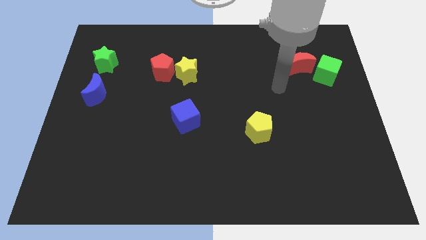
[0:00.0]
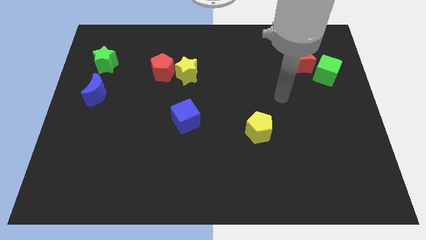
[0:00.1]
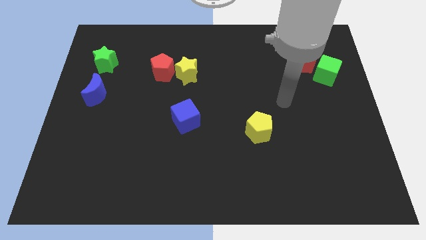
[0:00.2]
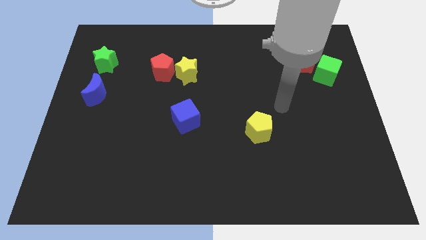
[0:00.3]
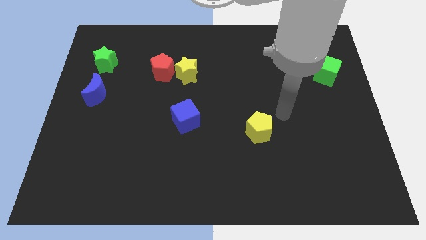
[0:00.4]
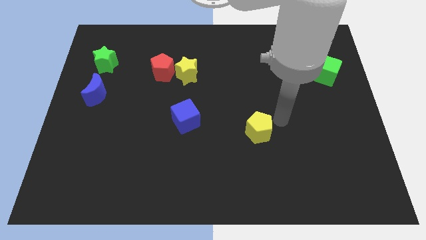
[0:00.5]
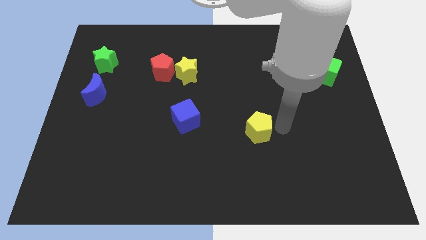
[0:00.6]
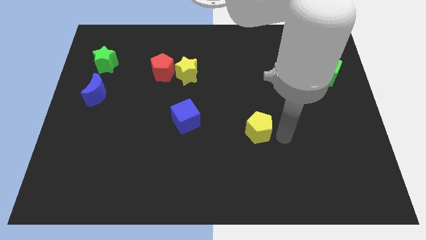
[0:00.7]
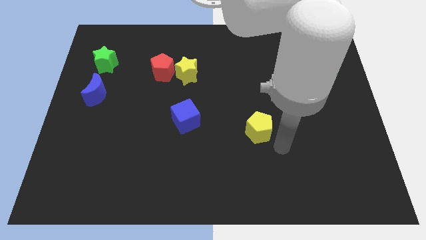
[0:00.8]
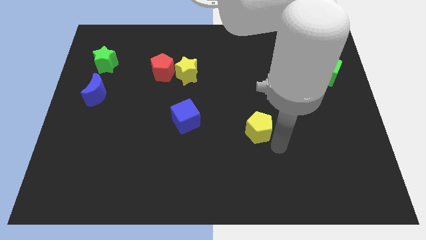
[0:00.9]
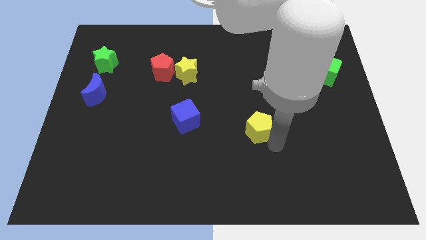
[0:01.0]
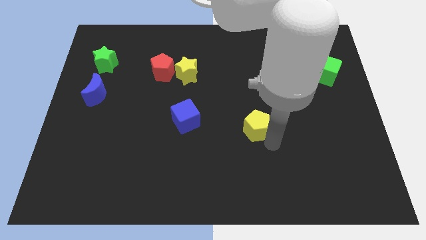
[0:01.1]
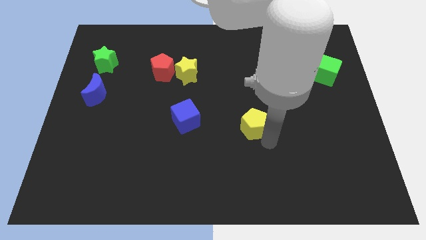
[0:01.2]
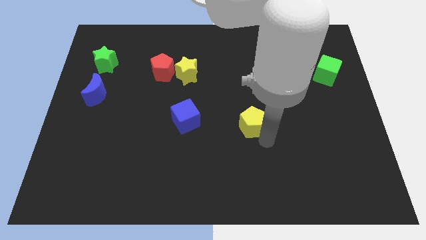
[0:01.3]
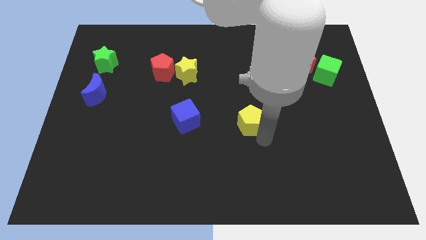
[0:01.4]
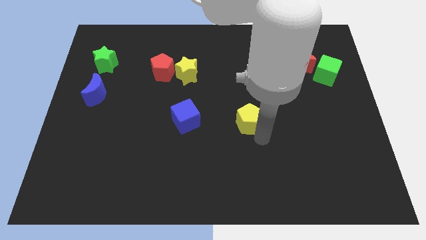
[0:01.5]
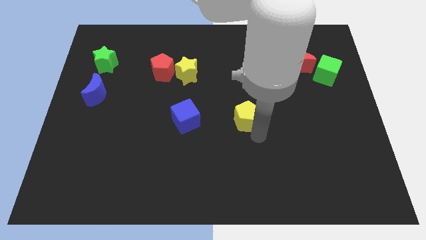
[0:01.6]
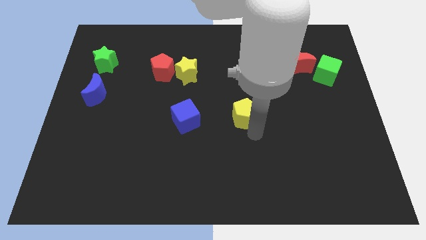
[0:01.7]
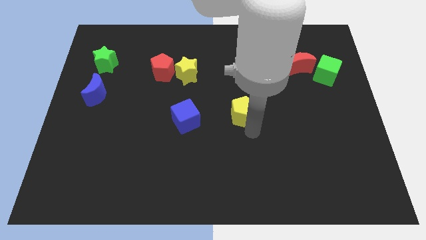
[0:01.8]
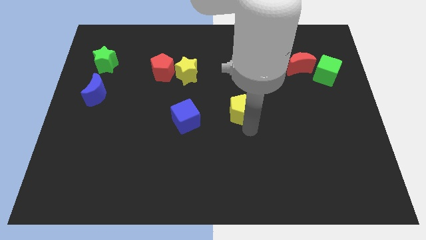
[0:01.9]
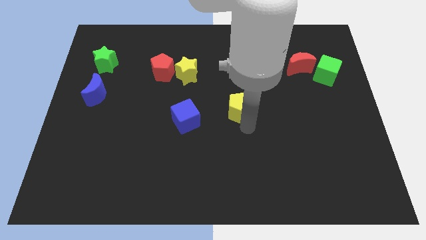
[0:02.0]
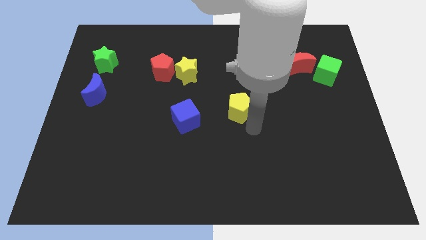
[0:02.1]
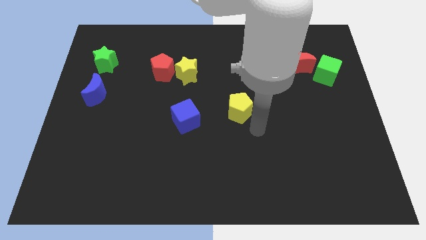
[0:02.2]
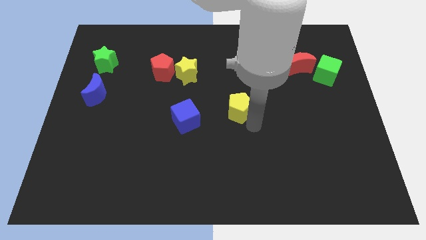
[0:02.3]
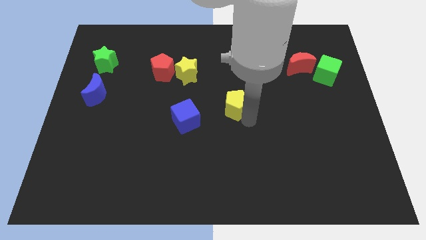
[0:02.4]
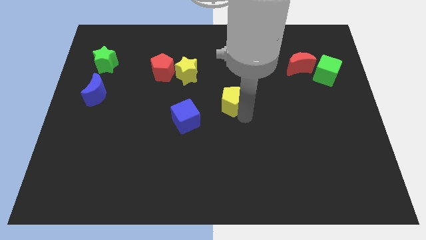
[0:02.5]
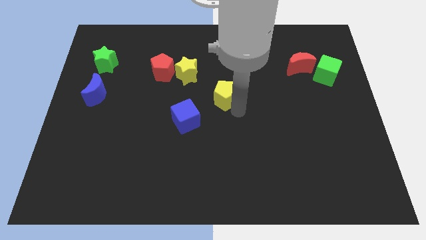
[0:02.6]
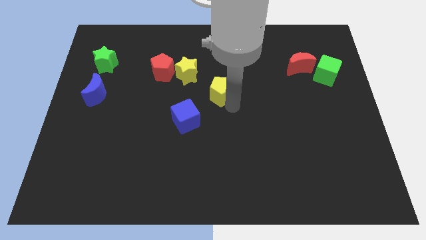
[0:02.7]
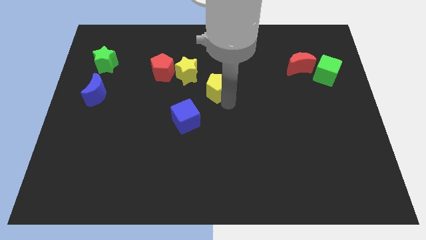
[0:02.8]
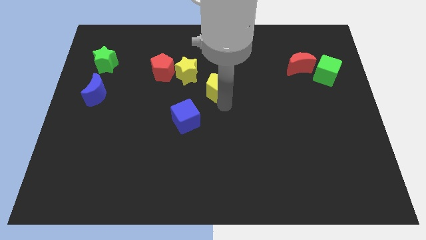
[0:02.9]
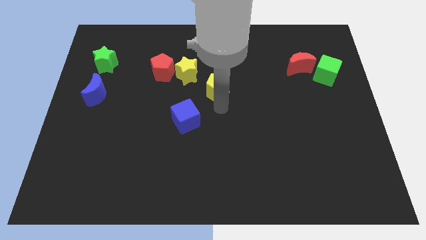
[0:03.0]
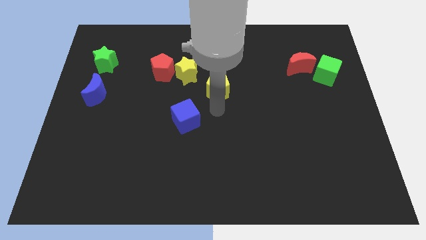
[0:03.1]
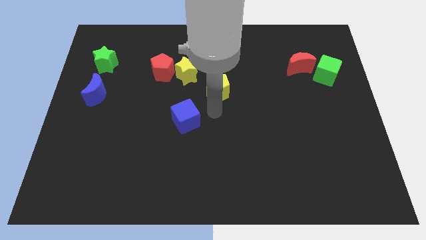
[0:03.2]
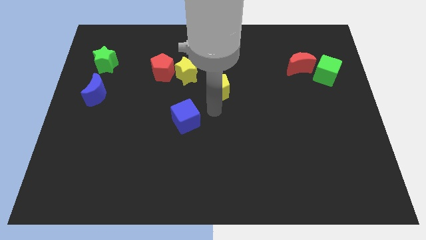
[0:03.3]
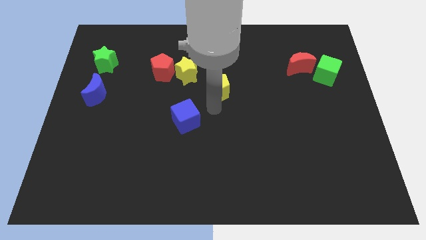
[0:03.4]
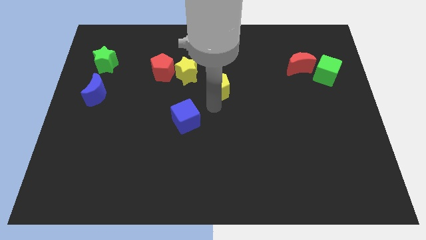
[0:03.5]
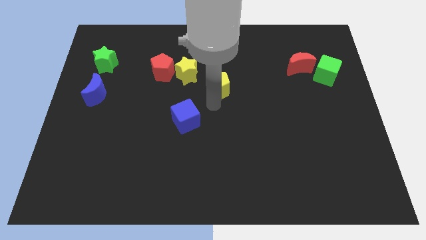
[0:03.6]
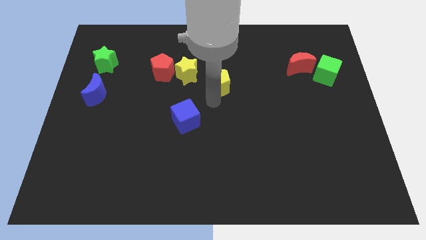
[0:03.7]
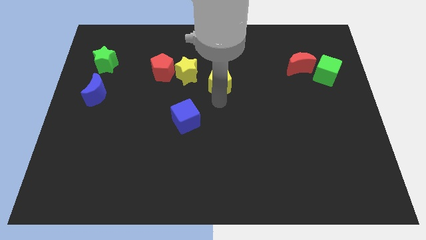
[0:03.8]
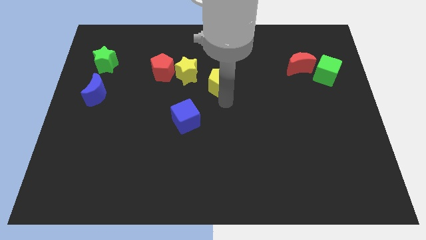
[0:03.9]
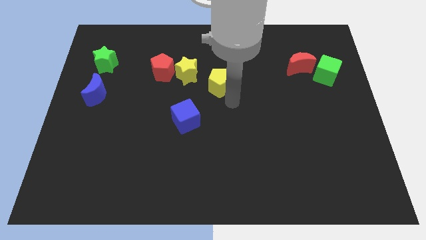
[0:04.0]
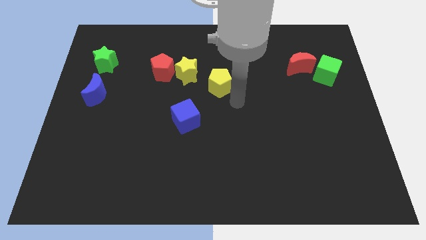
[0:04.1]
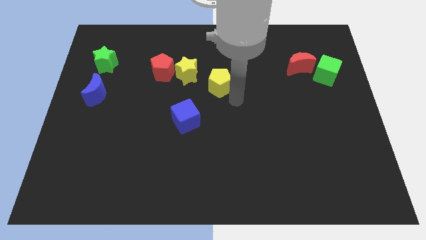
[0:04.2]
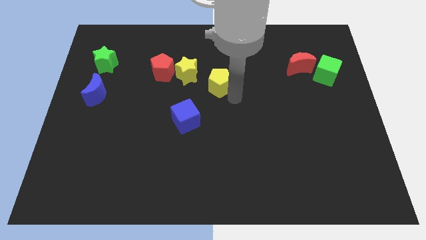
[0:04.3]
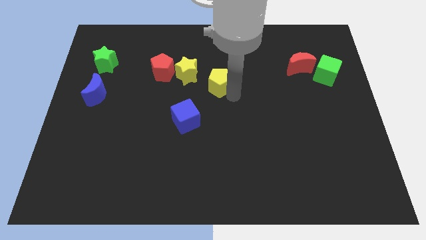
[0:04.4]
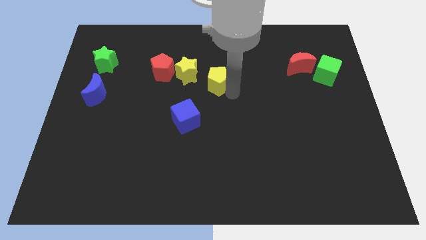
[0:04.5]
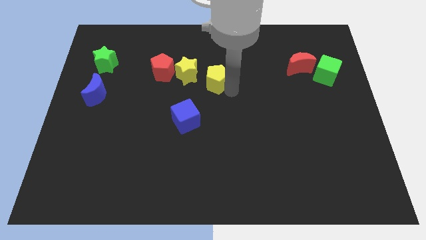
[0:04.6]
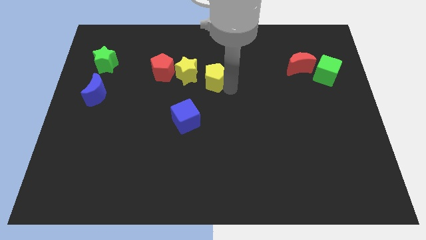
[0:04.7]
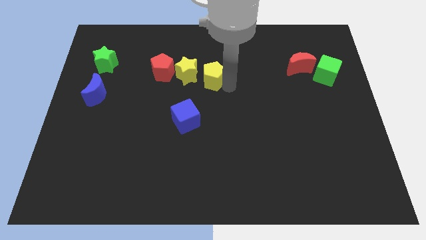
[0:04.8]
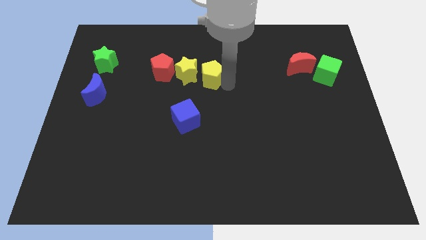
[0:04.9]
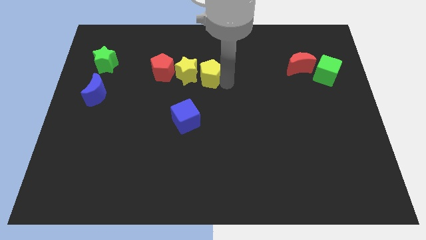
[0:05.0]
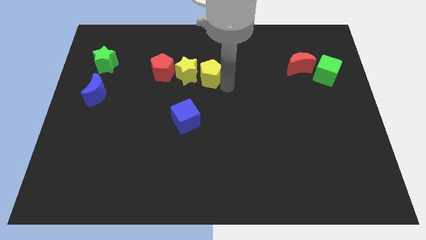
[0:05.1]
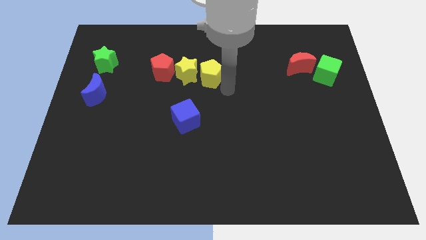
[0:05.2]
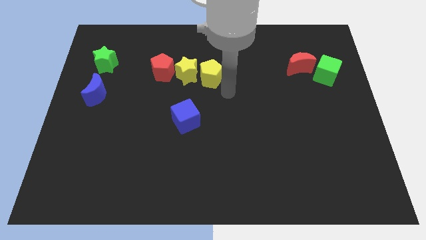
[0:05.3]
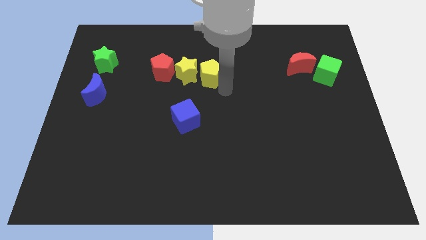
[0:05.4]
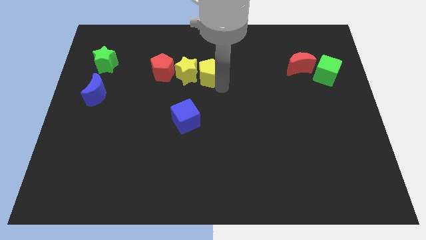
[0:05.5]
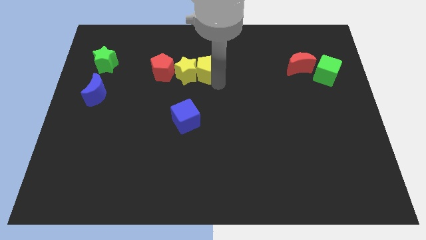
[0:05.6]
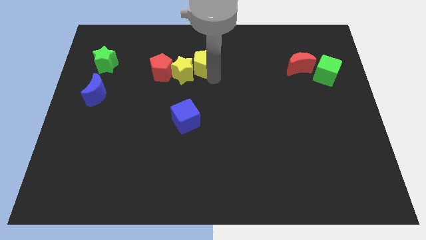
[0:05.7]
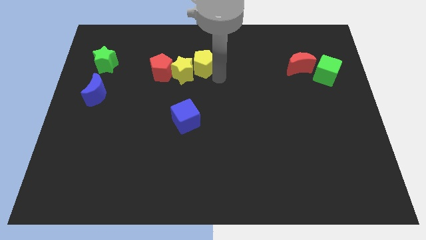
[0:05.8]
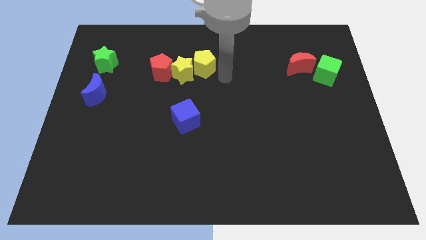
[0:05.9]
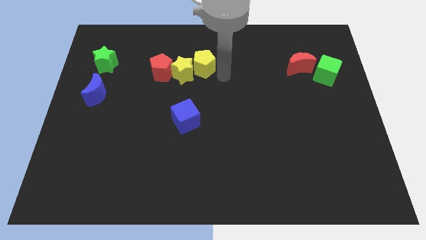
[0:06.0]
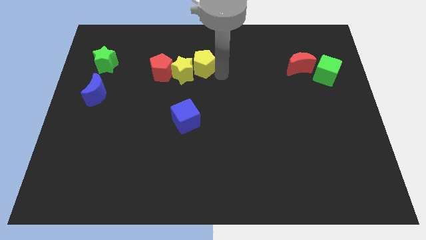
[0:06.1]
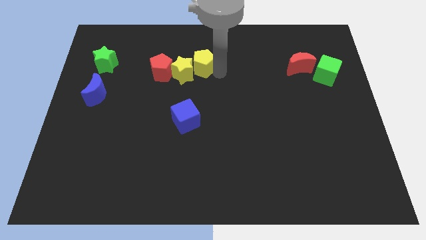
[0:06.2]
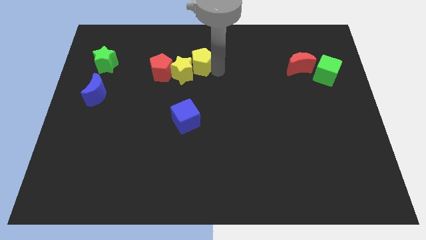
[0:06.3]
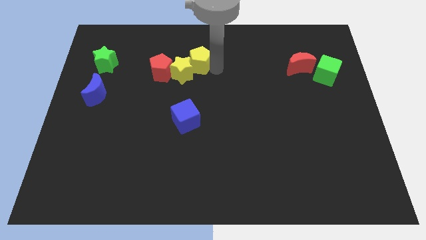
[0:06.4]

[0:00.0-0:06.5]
slide the yellow pentagon to the top right of the red pentagon

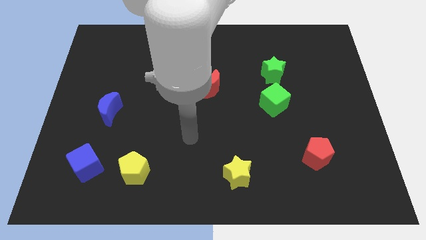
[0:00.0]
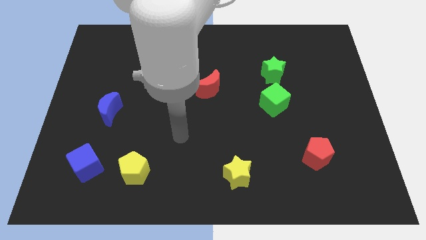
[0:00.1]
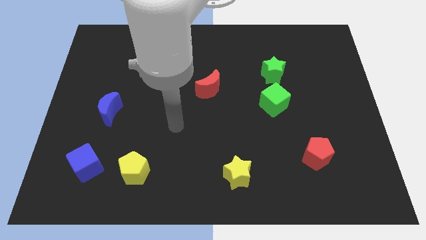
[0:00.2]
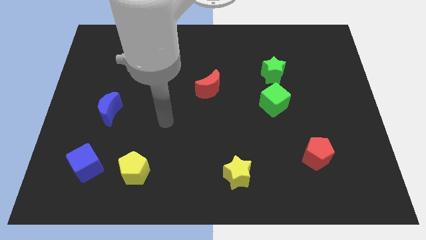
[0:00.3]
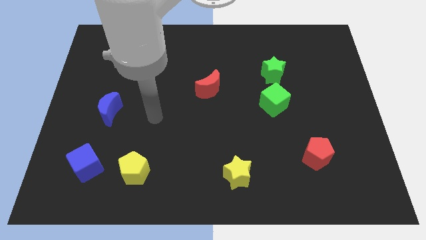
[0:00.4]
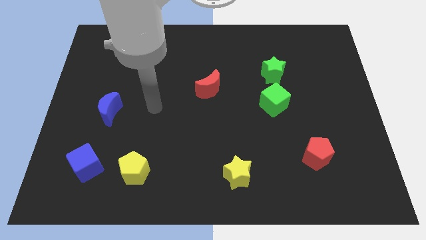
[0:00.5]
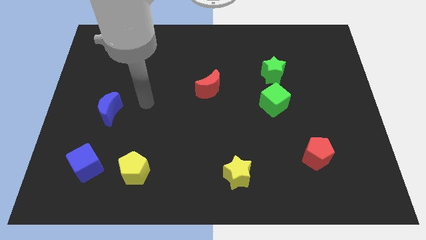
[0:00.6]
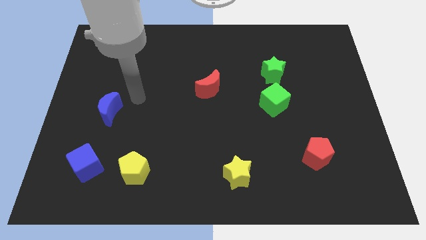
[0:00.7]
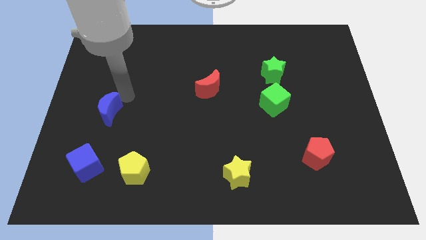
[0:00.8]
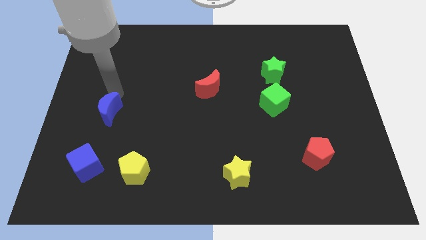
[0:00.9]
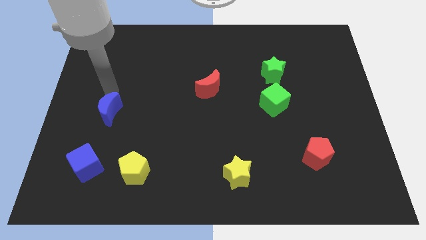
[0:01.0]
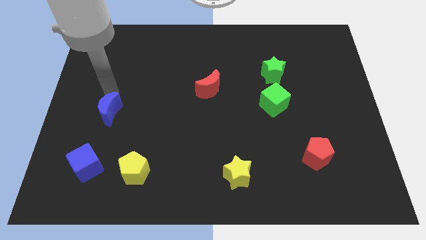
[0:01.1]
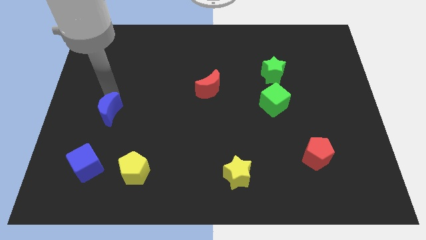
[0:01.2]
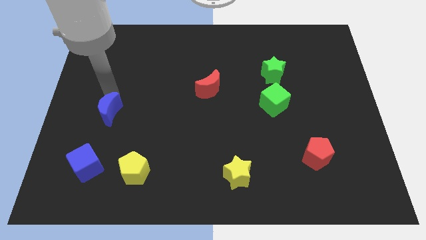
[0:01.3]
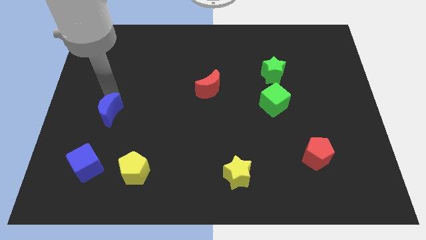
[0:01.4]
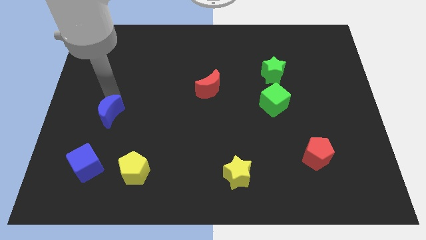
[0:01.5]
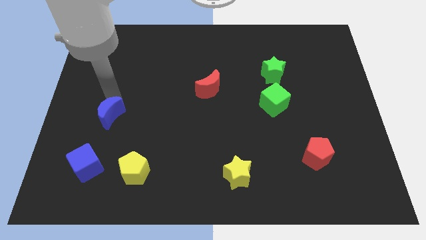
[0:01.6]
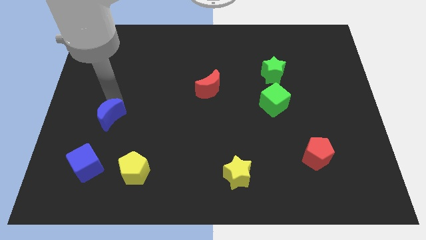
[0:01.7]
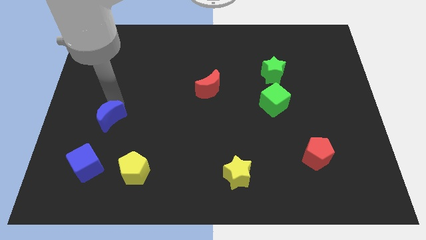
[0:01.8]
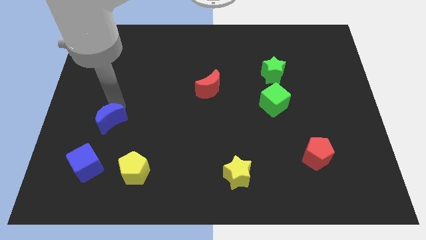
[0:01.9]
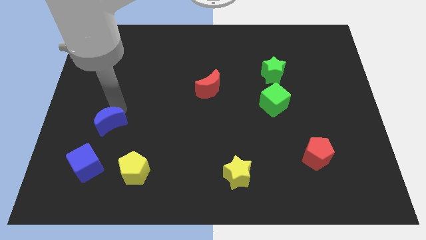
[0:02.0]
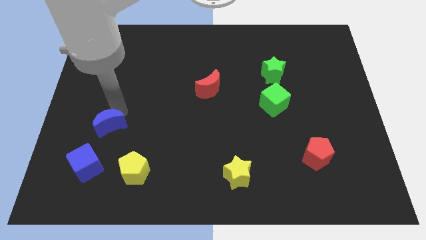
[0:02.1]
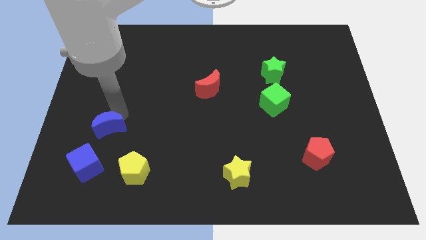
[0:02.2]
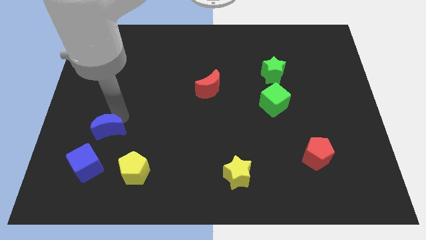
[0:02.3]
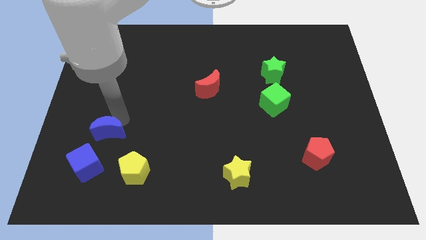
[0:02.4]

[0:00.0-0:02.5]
put the blue moon to the top left of the yellow pentagon
